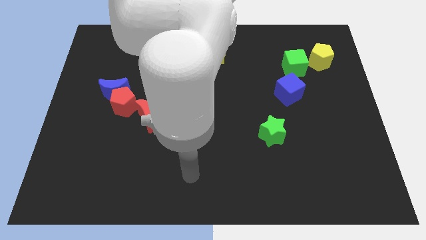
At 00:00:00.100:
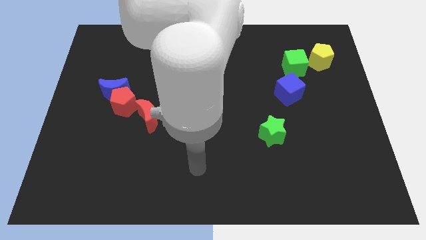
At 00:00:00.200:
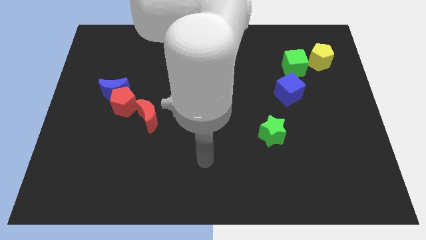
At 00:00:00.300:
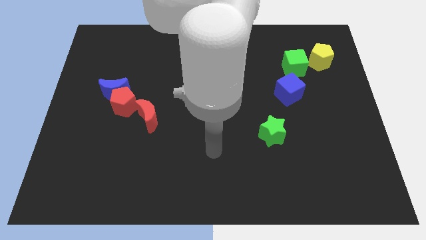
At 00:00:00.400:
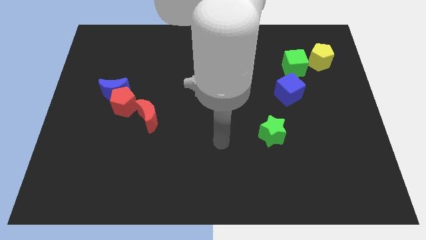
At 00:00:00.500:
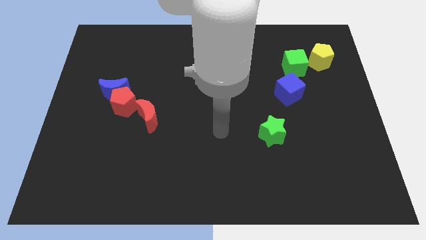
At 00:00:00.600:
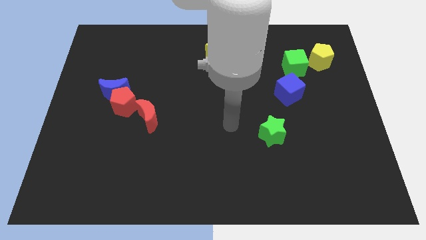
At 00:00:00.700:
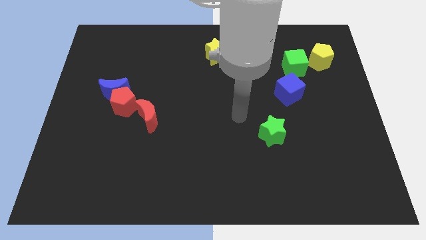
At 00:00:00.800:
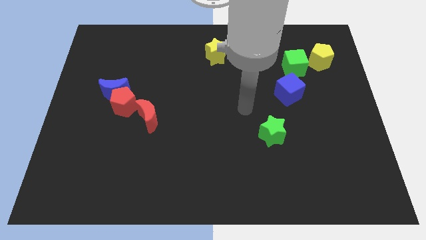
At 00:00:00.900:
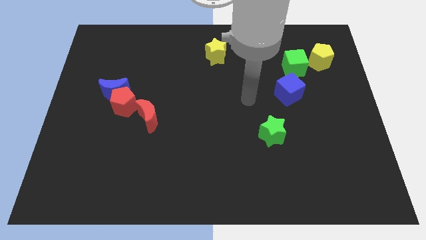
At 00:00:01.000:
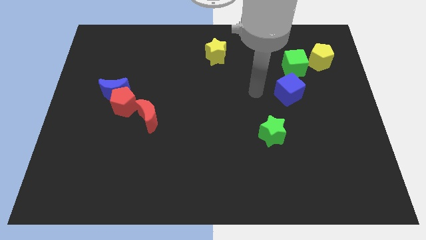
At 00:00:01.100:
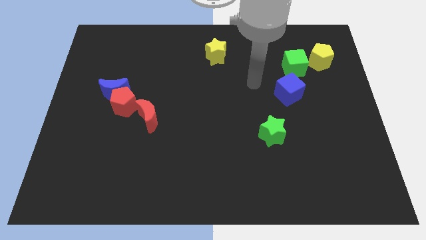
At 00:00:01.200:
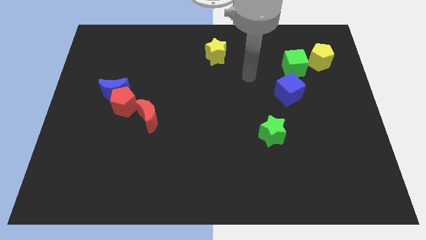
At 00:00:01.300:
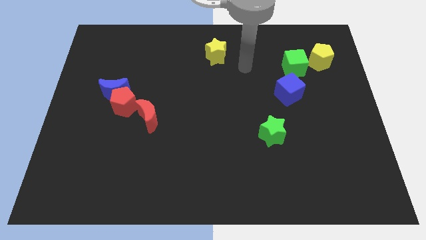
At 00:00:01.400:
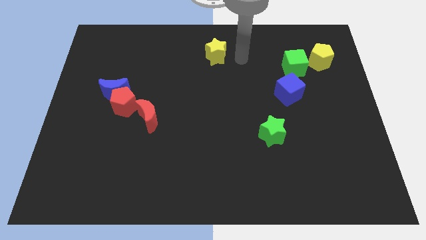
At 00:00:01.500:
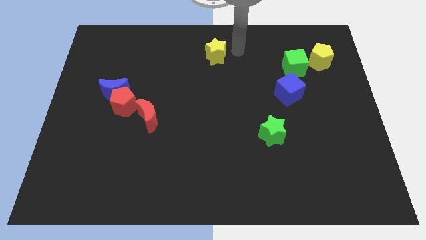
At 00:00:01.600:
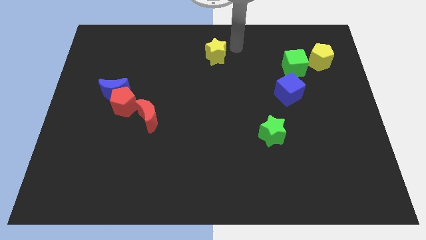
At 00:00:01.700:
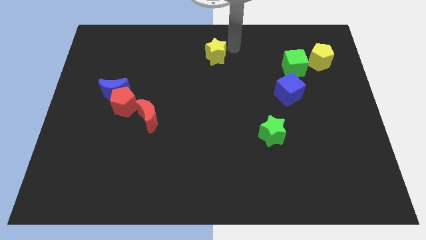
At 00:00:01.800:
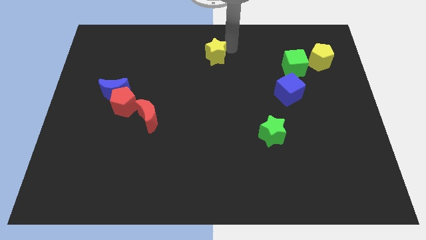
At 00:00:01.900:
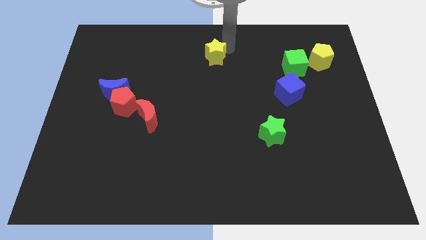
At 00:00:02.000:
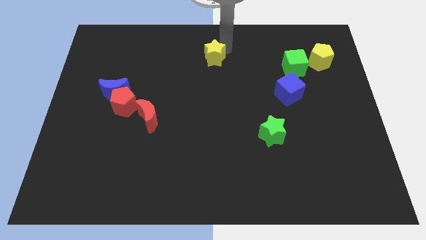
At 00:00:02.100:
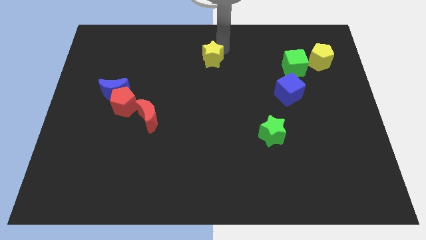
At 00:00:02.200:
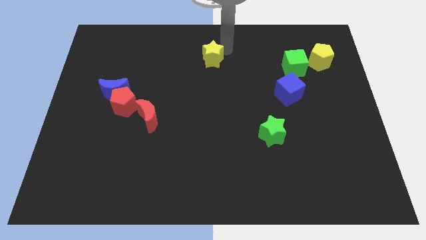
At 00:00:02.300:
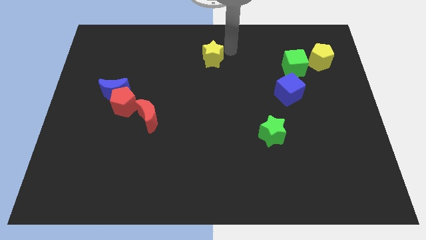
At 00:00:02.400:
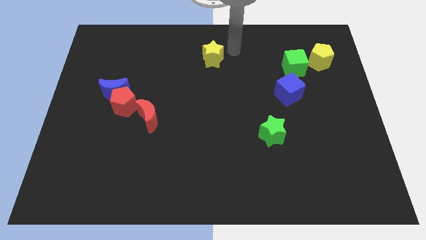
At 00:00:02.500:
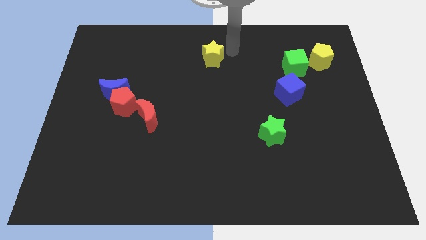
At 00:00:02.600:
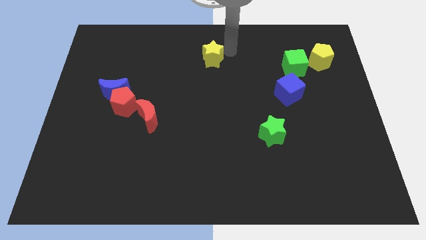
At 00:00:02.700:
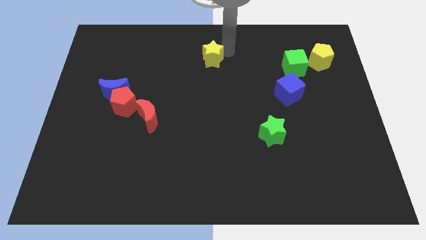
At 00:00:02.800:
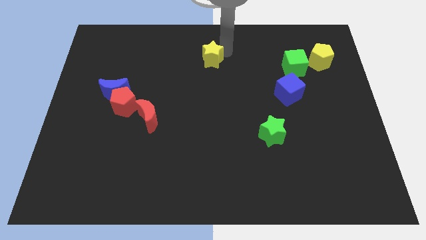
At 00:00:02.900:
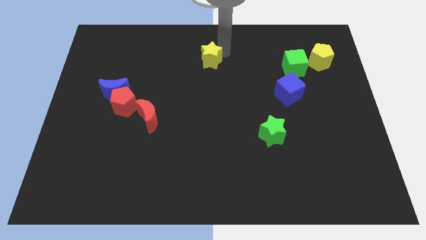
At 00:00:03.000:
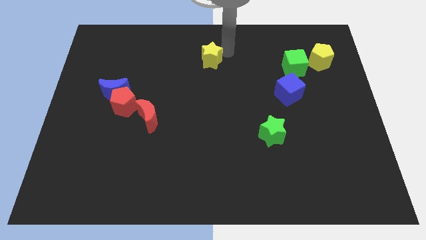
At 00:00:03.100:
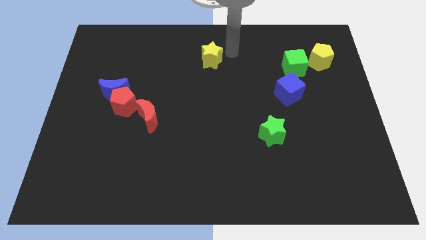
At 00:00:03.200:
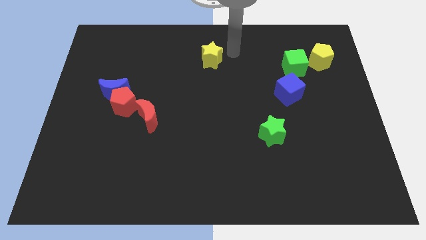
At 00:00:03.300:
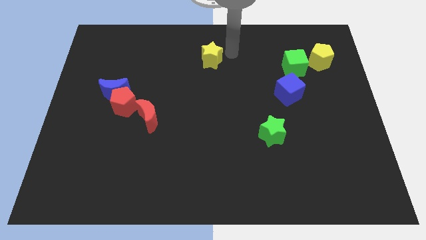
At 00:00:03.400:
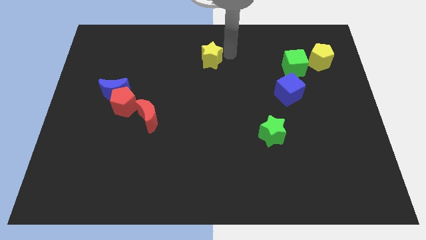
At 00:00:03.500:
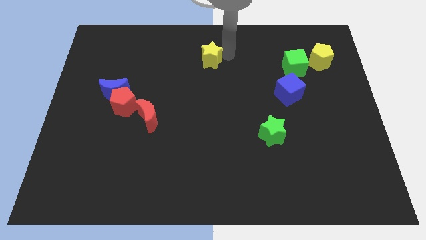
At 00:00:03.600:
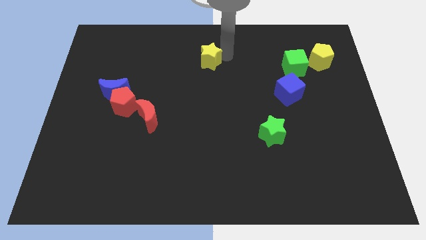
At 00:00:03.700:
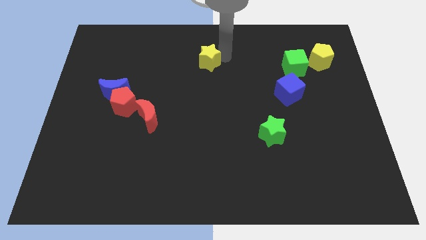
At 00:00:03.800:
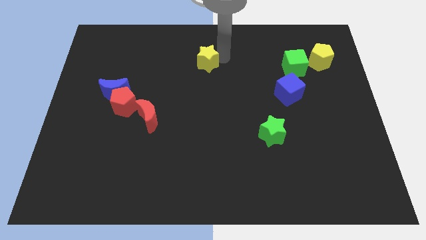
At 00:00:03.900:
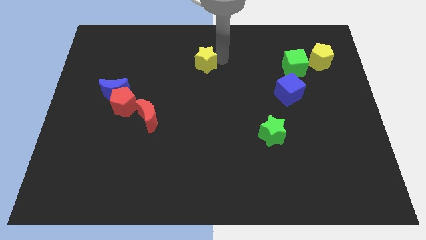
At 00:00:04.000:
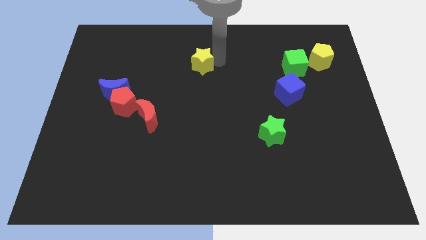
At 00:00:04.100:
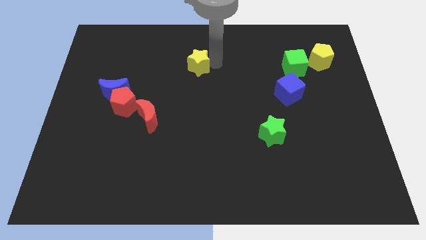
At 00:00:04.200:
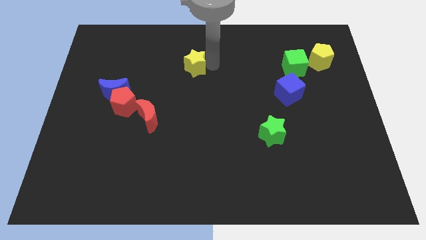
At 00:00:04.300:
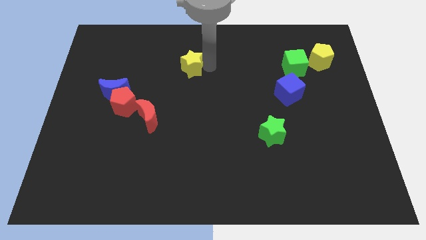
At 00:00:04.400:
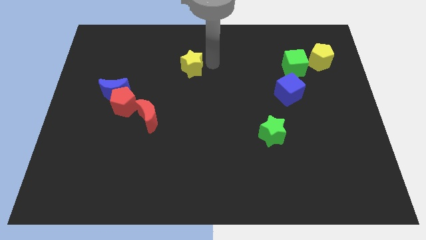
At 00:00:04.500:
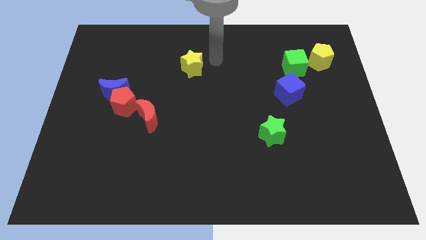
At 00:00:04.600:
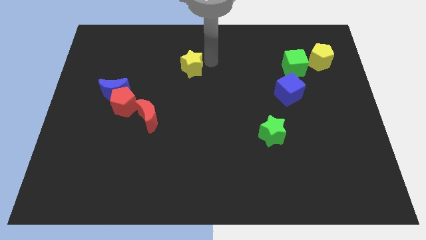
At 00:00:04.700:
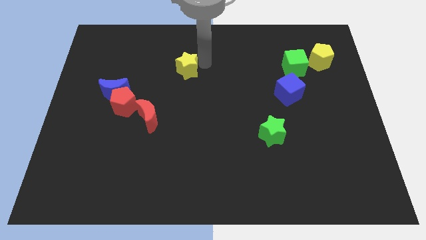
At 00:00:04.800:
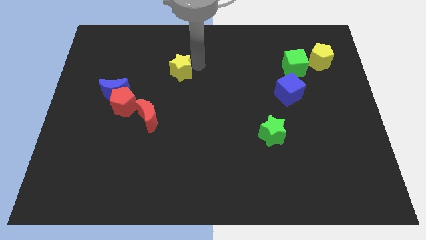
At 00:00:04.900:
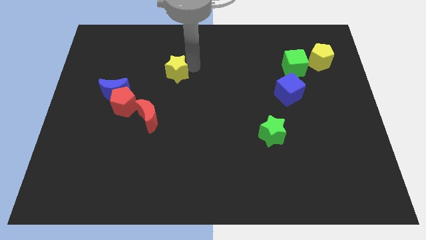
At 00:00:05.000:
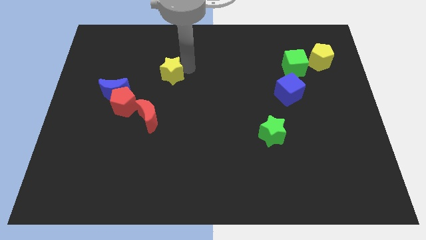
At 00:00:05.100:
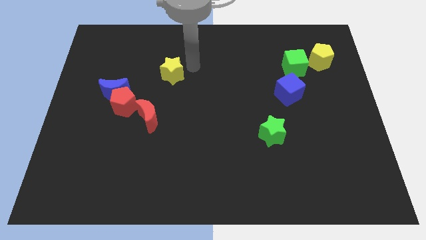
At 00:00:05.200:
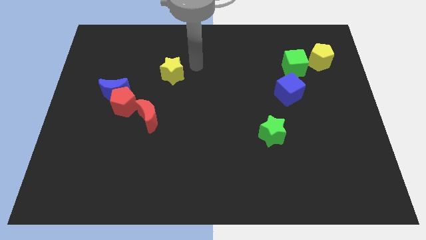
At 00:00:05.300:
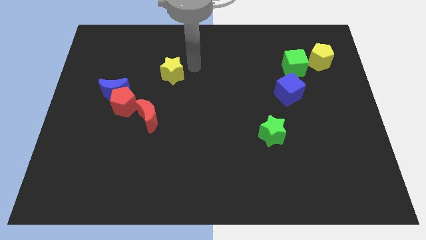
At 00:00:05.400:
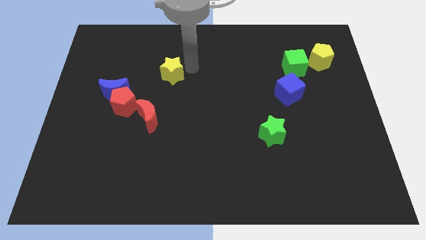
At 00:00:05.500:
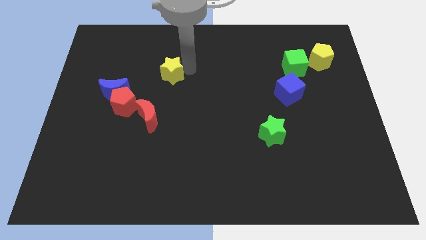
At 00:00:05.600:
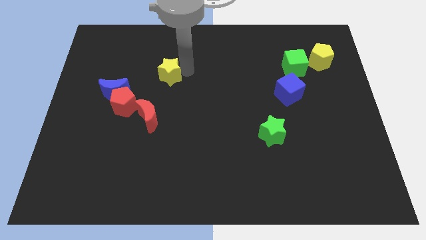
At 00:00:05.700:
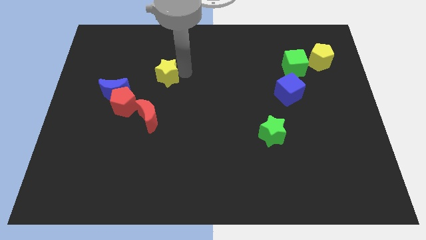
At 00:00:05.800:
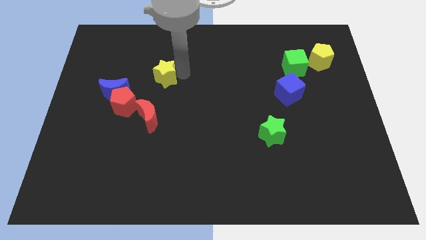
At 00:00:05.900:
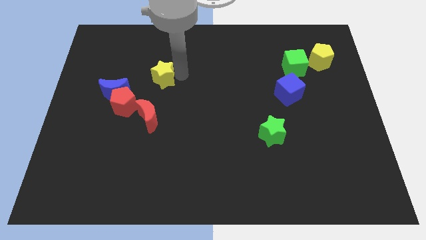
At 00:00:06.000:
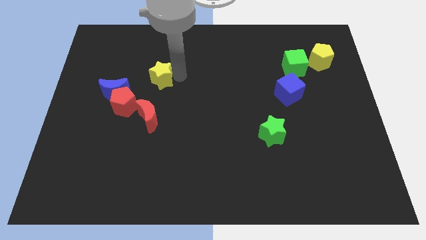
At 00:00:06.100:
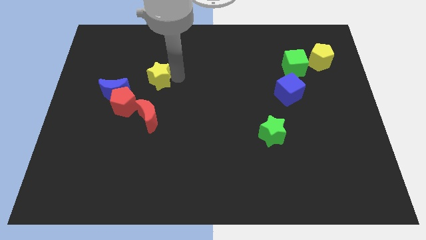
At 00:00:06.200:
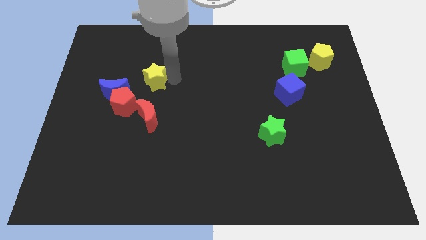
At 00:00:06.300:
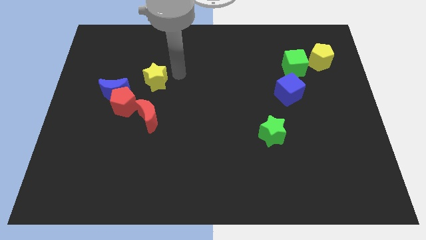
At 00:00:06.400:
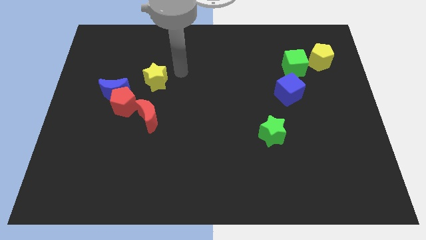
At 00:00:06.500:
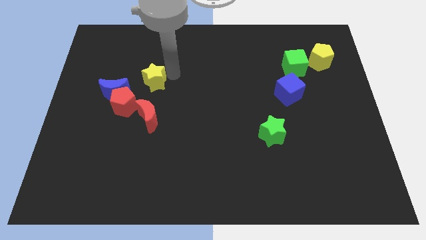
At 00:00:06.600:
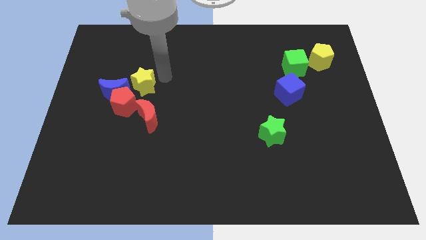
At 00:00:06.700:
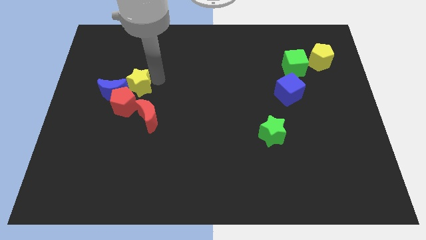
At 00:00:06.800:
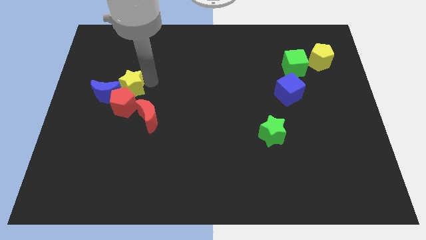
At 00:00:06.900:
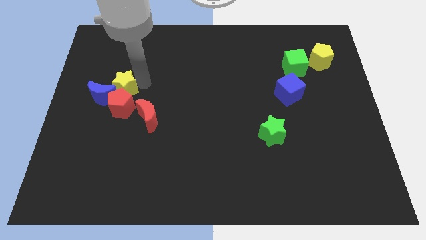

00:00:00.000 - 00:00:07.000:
put the yellow star towards the blue moon

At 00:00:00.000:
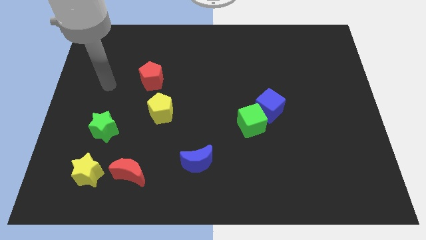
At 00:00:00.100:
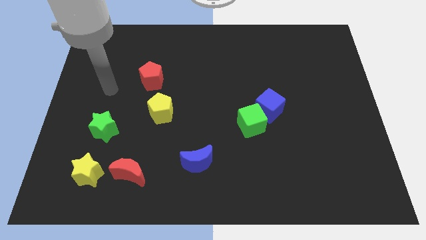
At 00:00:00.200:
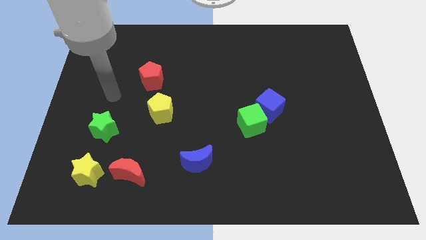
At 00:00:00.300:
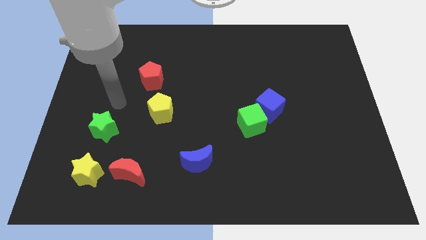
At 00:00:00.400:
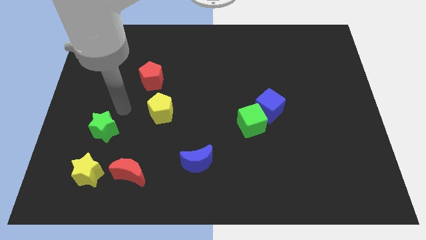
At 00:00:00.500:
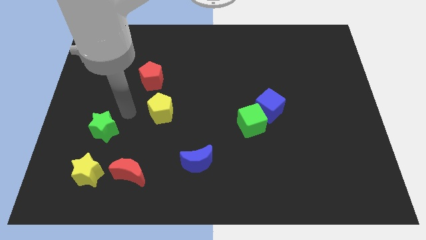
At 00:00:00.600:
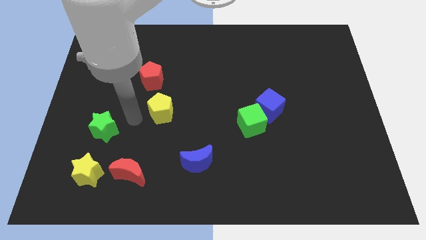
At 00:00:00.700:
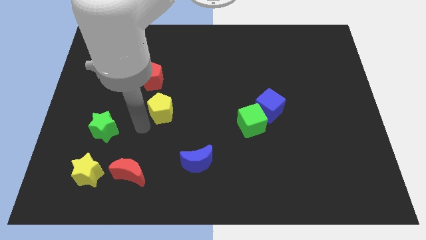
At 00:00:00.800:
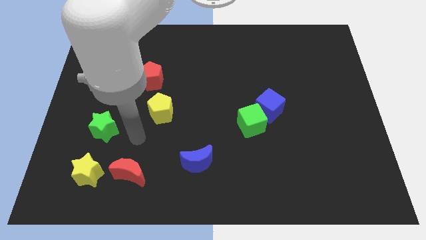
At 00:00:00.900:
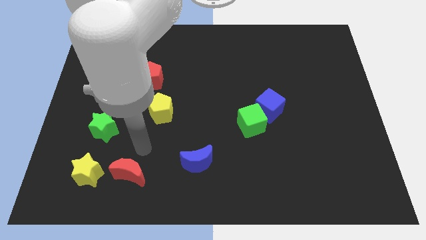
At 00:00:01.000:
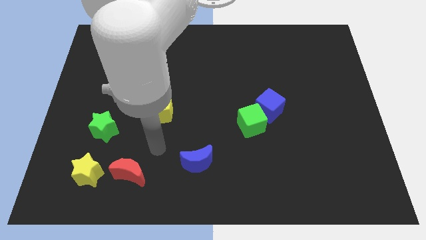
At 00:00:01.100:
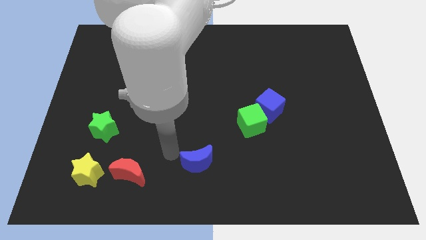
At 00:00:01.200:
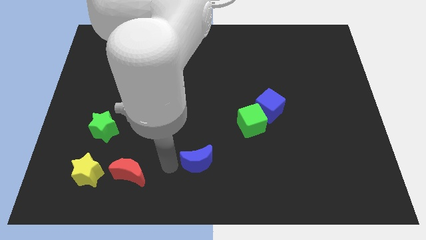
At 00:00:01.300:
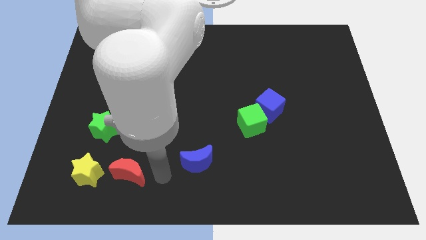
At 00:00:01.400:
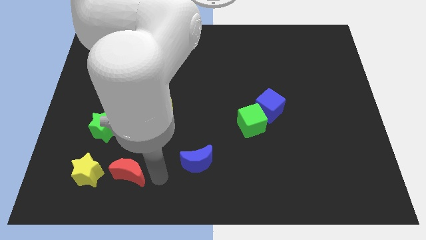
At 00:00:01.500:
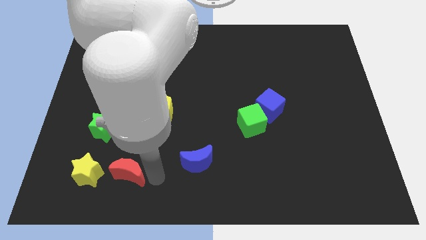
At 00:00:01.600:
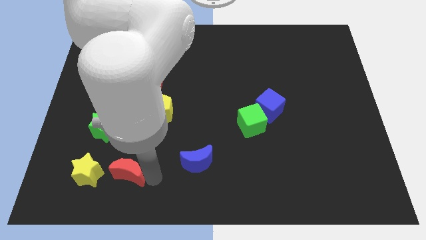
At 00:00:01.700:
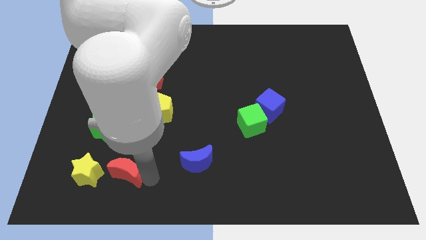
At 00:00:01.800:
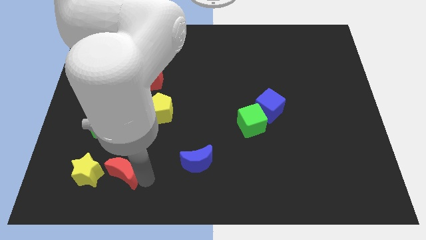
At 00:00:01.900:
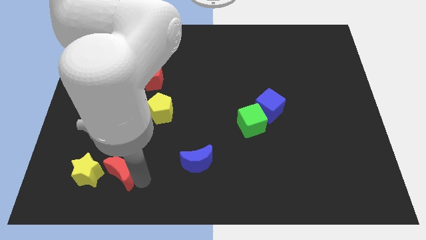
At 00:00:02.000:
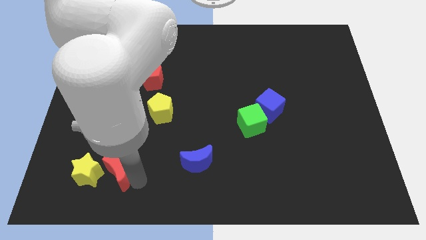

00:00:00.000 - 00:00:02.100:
put the red moon next to the yellow star
